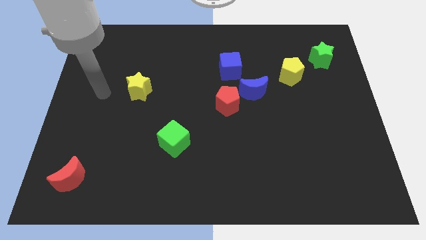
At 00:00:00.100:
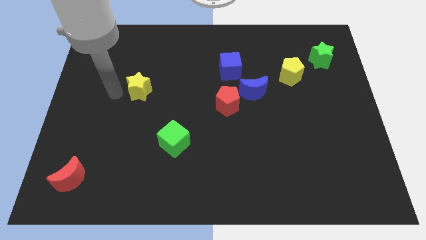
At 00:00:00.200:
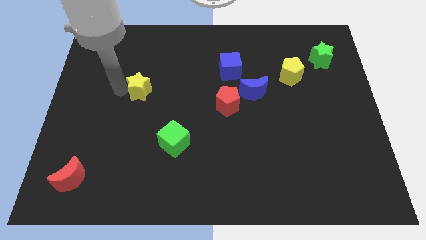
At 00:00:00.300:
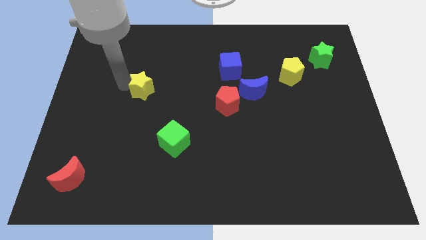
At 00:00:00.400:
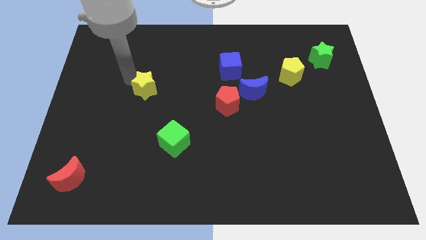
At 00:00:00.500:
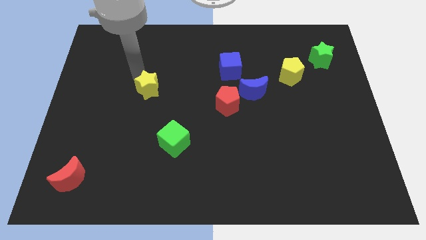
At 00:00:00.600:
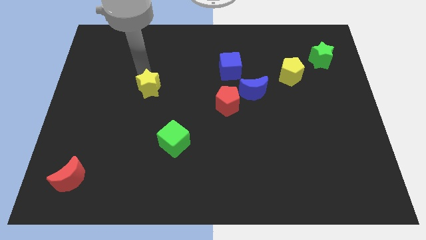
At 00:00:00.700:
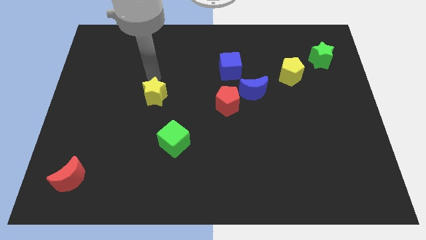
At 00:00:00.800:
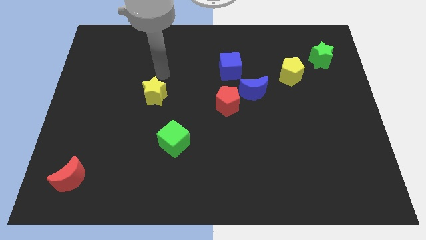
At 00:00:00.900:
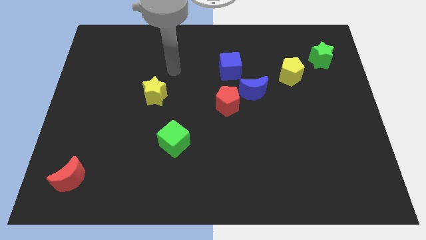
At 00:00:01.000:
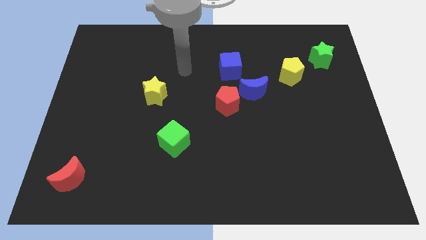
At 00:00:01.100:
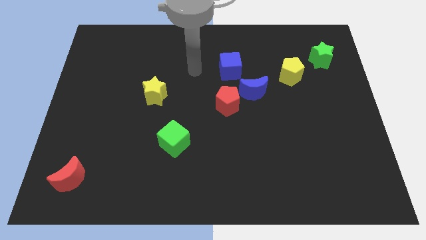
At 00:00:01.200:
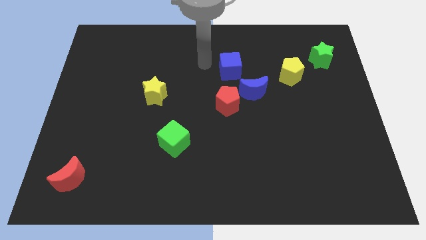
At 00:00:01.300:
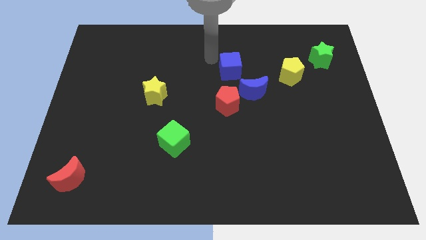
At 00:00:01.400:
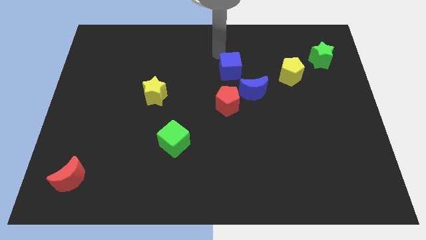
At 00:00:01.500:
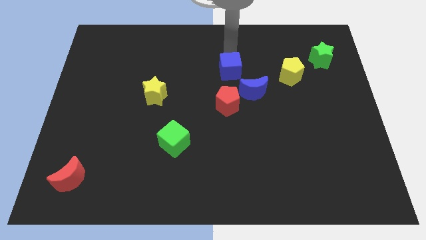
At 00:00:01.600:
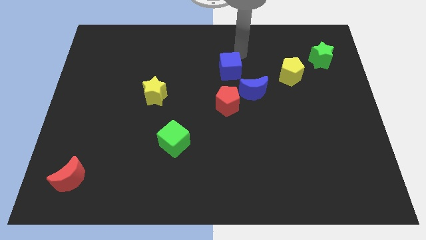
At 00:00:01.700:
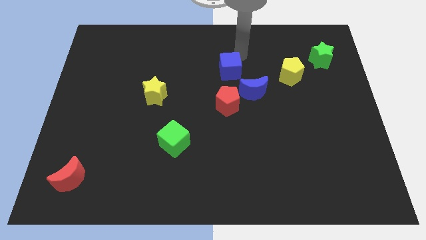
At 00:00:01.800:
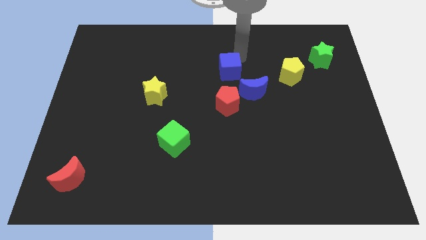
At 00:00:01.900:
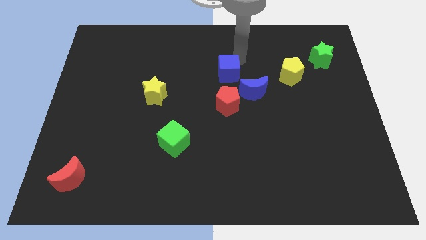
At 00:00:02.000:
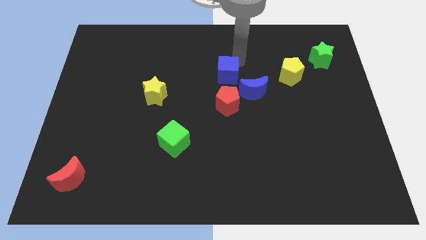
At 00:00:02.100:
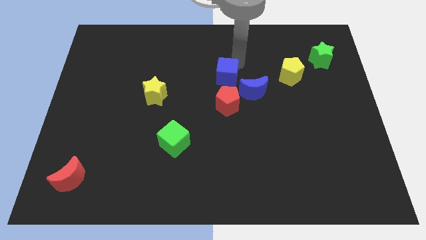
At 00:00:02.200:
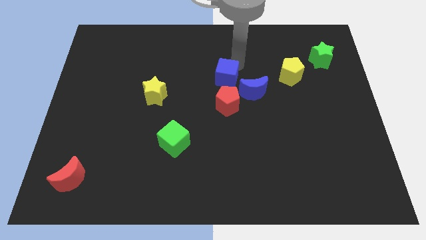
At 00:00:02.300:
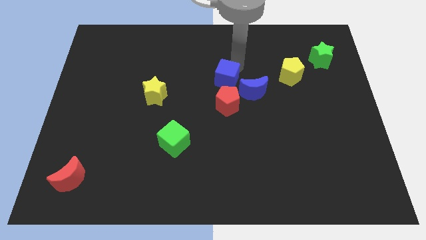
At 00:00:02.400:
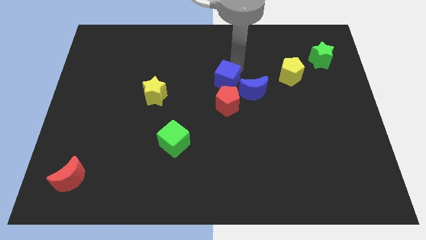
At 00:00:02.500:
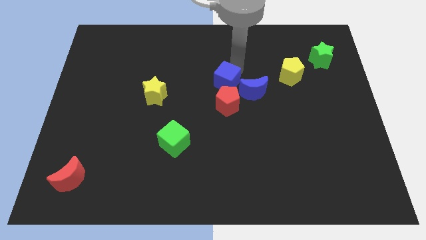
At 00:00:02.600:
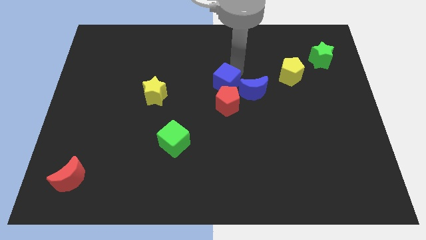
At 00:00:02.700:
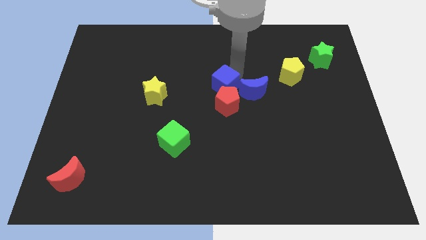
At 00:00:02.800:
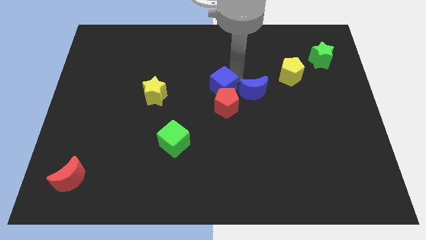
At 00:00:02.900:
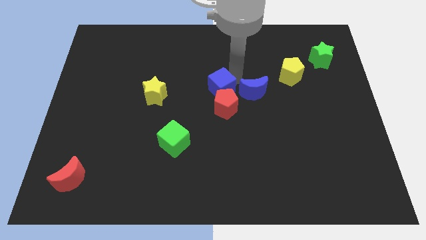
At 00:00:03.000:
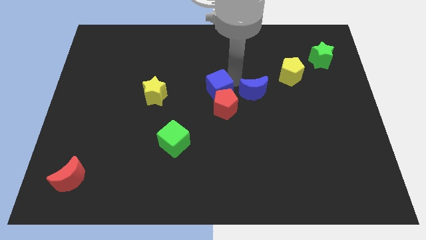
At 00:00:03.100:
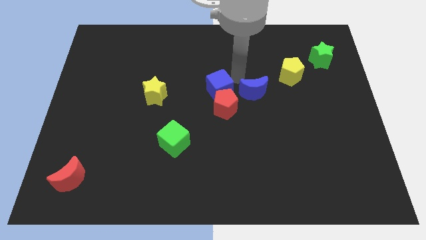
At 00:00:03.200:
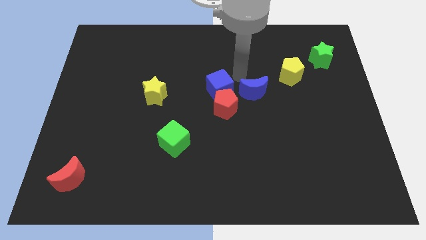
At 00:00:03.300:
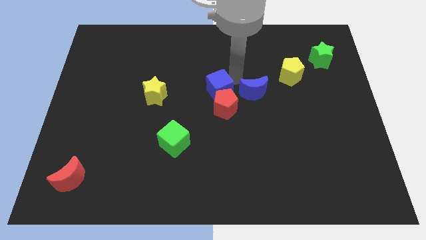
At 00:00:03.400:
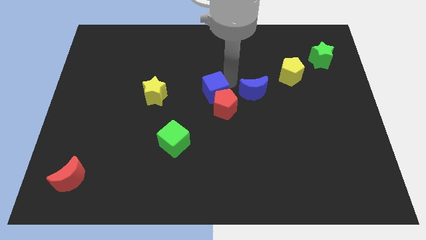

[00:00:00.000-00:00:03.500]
move the blue cube down a little

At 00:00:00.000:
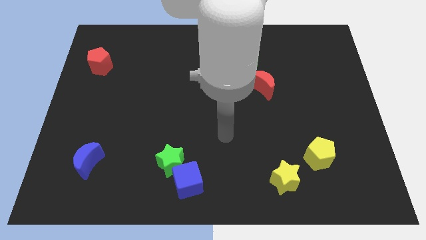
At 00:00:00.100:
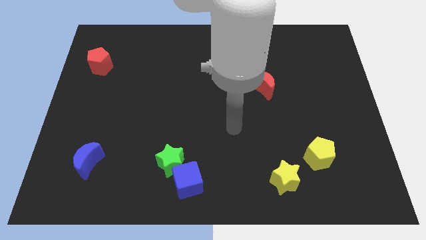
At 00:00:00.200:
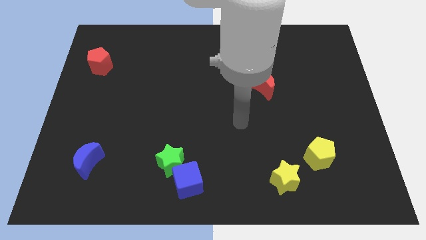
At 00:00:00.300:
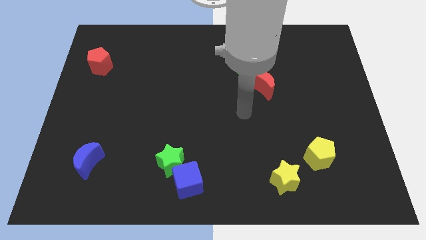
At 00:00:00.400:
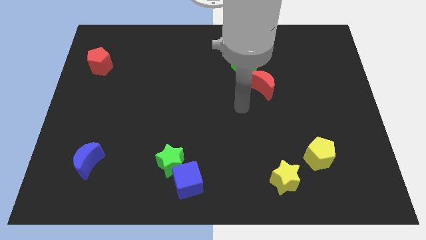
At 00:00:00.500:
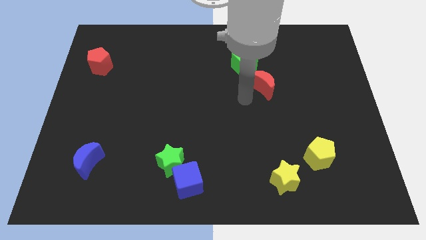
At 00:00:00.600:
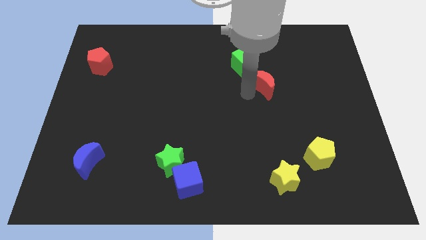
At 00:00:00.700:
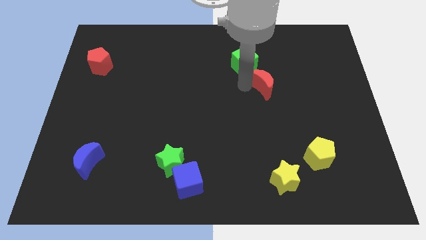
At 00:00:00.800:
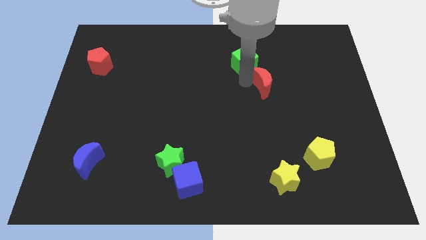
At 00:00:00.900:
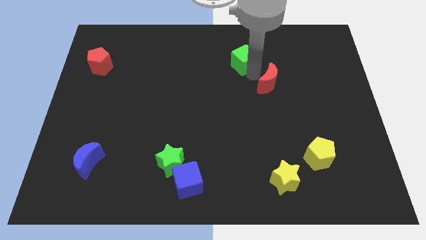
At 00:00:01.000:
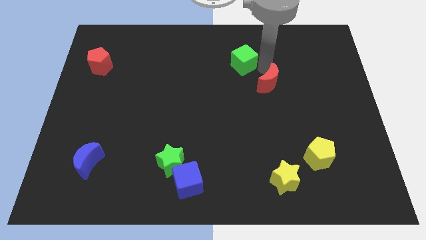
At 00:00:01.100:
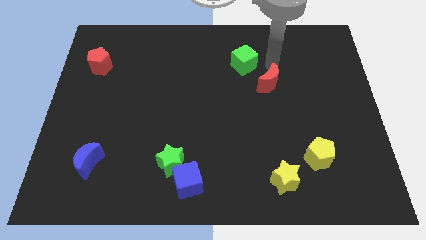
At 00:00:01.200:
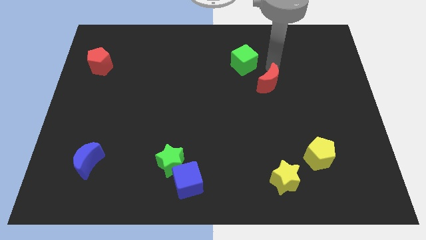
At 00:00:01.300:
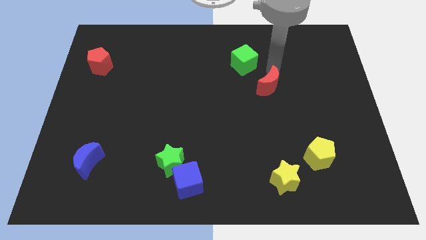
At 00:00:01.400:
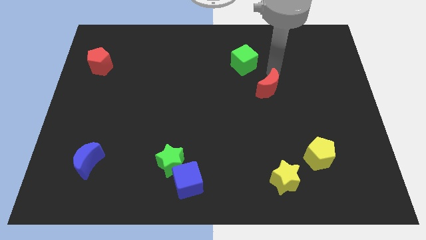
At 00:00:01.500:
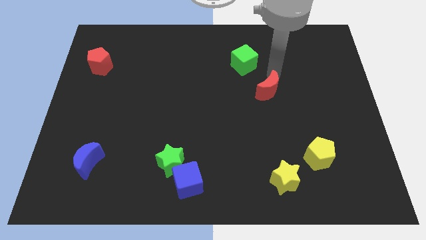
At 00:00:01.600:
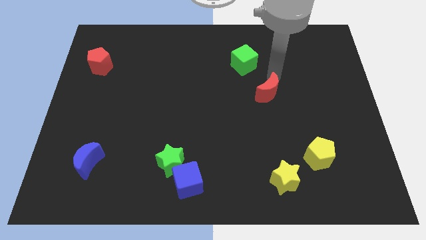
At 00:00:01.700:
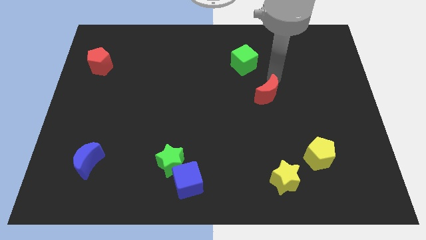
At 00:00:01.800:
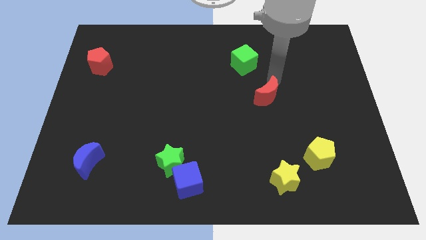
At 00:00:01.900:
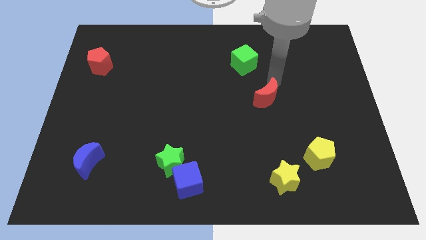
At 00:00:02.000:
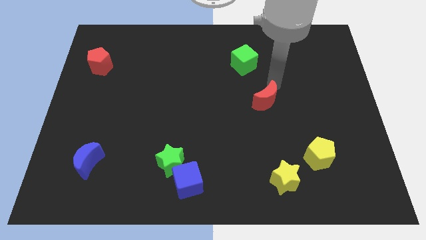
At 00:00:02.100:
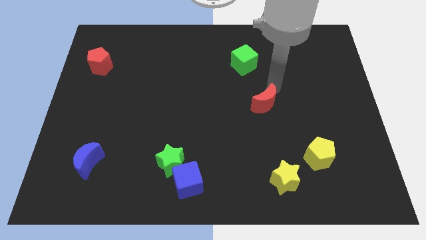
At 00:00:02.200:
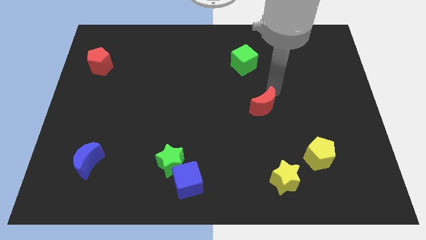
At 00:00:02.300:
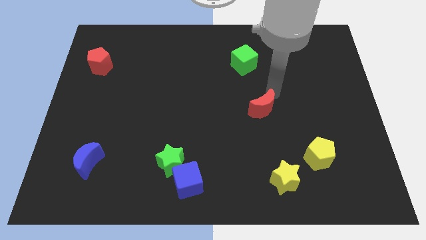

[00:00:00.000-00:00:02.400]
push the red moon somewhat downwards

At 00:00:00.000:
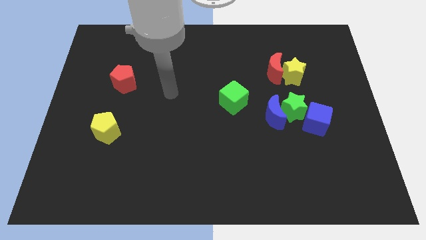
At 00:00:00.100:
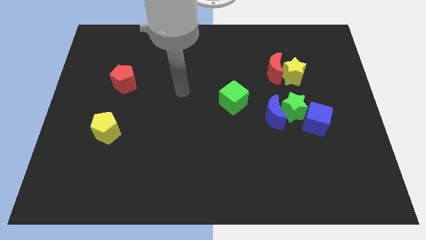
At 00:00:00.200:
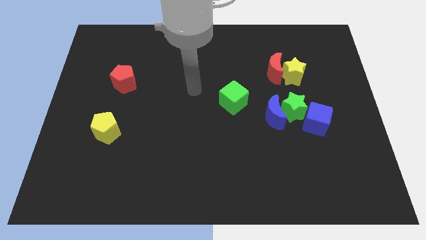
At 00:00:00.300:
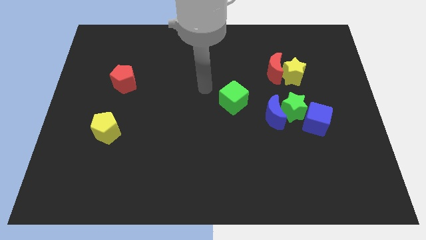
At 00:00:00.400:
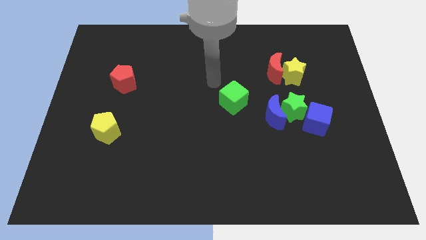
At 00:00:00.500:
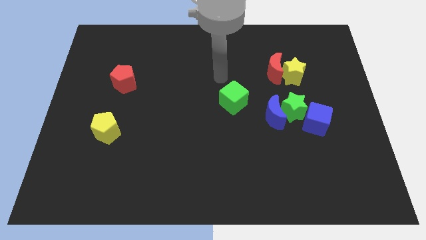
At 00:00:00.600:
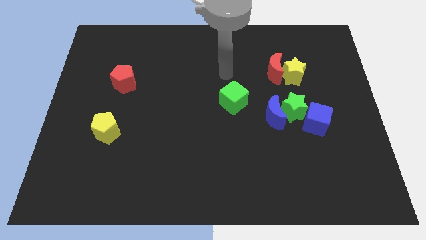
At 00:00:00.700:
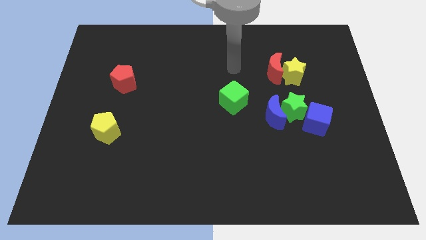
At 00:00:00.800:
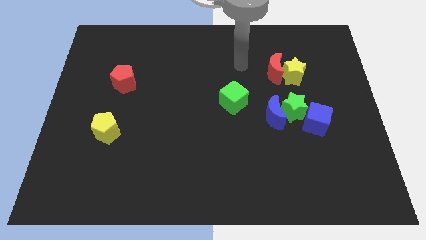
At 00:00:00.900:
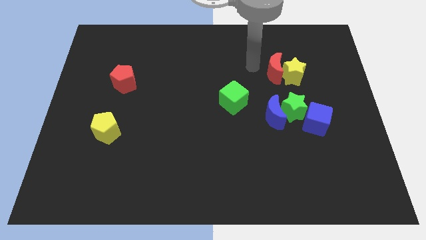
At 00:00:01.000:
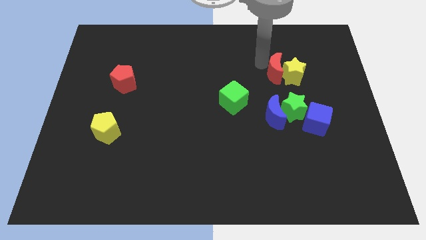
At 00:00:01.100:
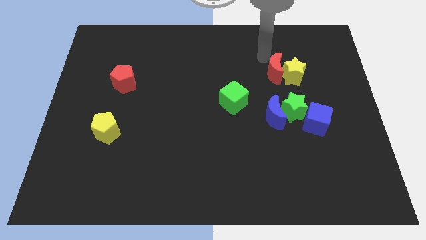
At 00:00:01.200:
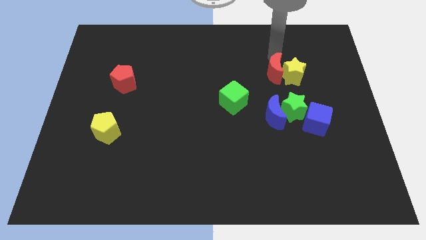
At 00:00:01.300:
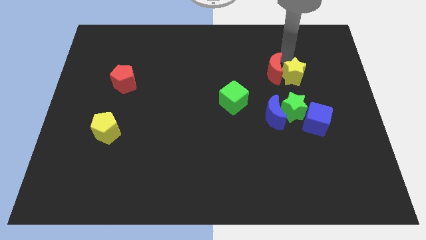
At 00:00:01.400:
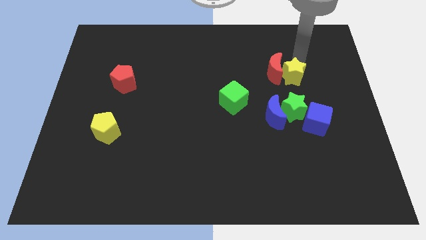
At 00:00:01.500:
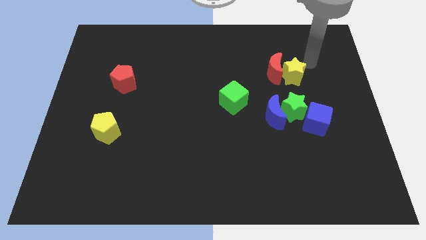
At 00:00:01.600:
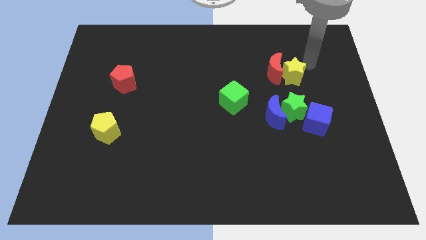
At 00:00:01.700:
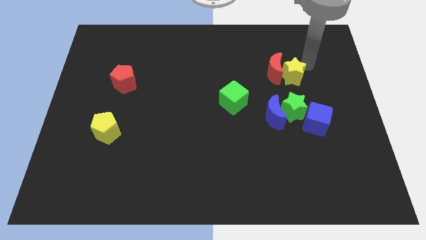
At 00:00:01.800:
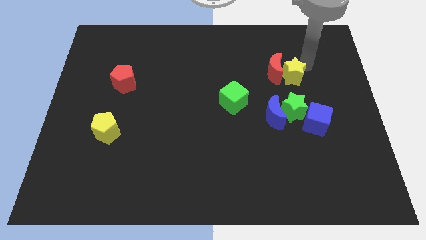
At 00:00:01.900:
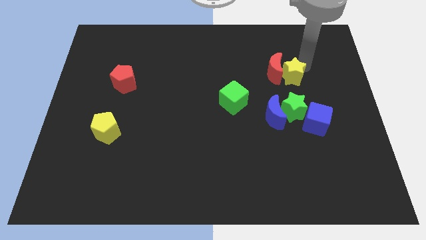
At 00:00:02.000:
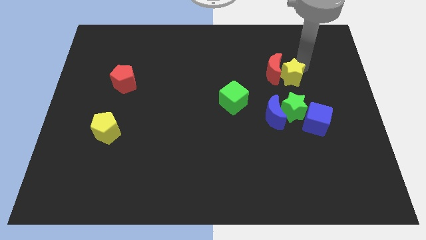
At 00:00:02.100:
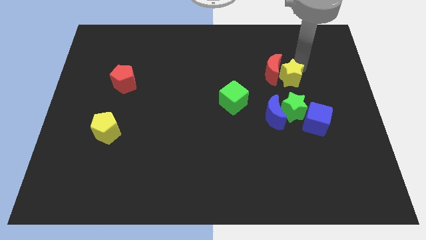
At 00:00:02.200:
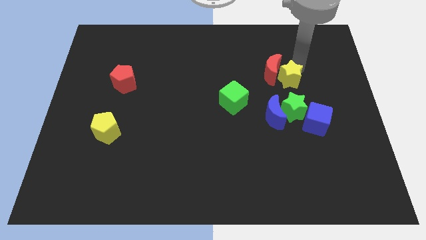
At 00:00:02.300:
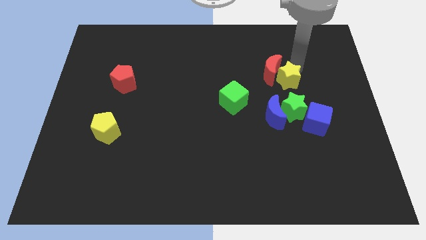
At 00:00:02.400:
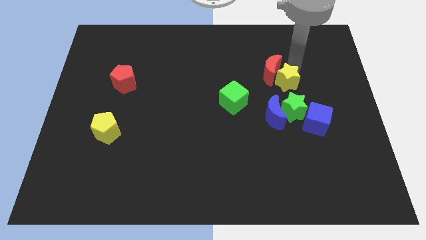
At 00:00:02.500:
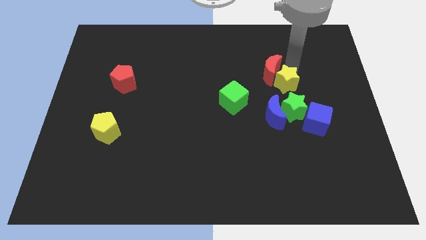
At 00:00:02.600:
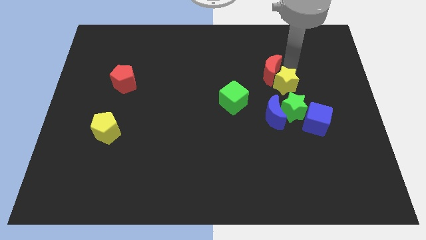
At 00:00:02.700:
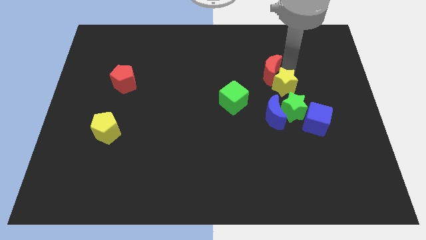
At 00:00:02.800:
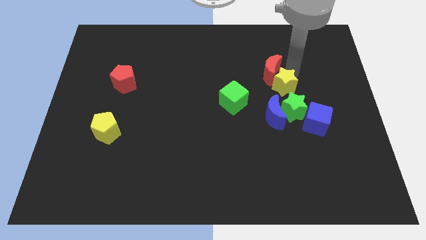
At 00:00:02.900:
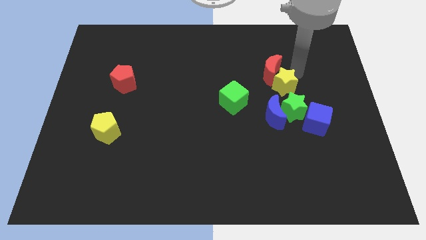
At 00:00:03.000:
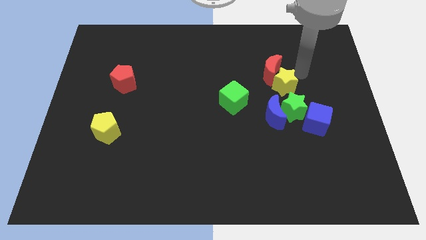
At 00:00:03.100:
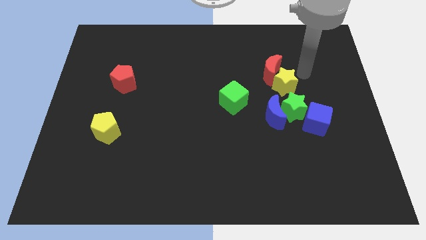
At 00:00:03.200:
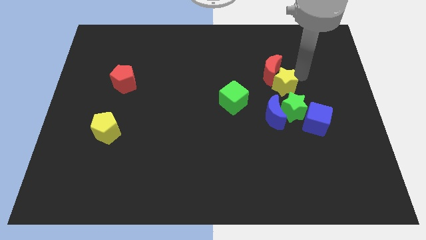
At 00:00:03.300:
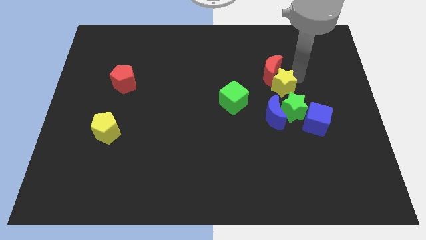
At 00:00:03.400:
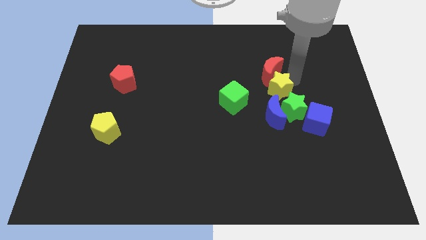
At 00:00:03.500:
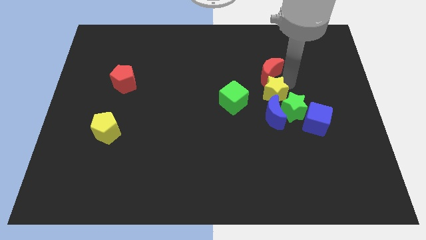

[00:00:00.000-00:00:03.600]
slightly push the yellow star down and then left
